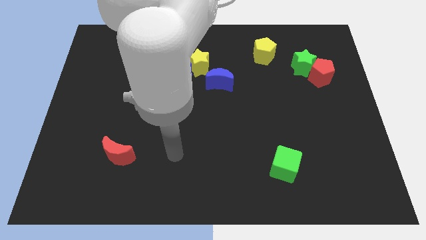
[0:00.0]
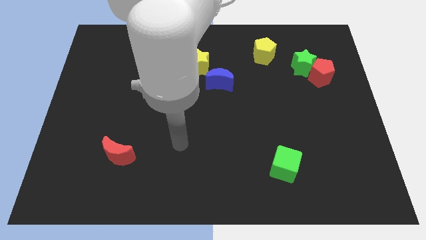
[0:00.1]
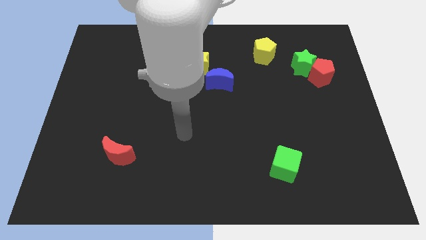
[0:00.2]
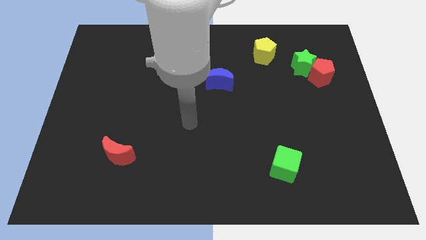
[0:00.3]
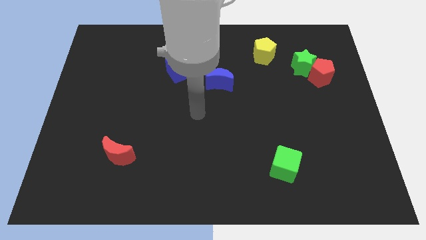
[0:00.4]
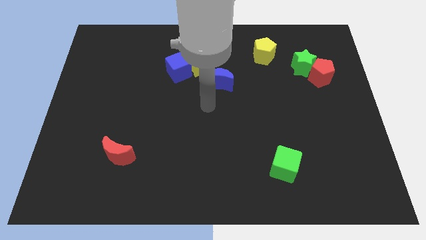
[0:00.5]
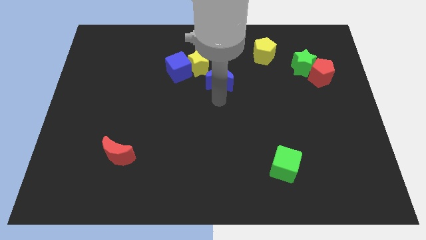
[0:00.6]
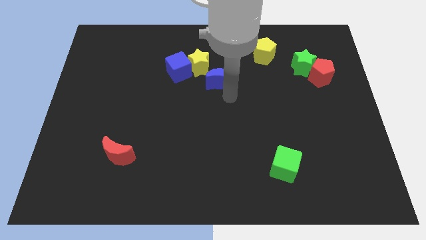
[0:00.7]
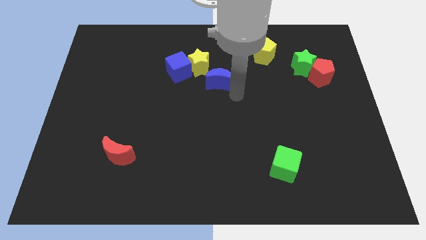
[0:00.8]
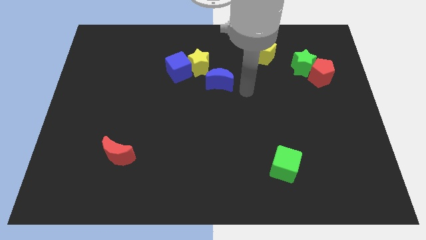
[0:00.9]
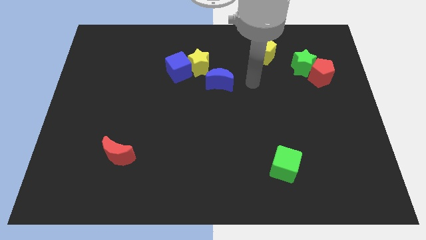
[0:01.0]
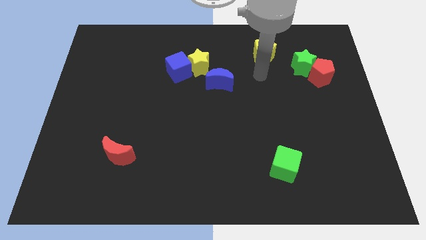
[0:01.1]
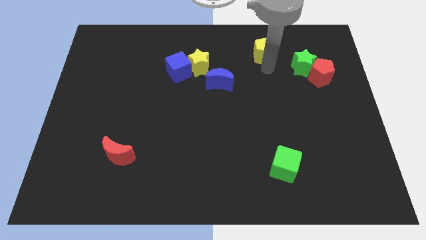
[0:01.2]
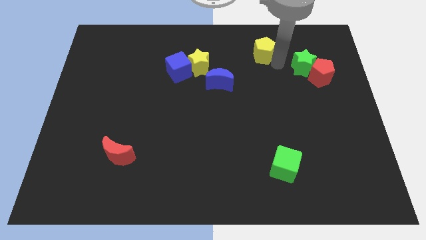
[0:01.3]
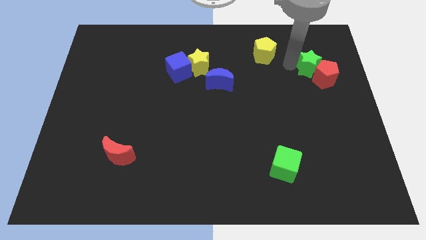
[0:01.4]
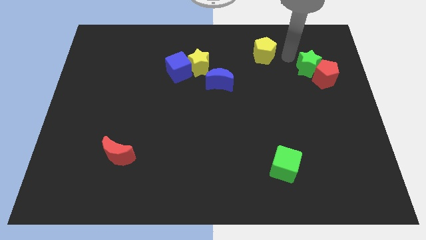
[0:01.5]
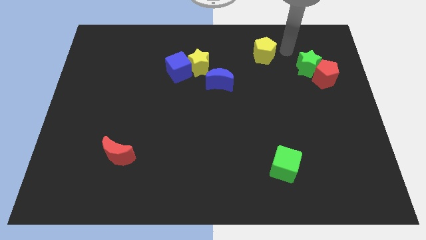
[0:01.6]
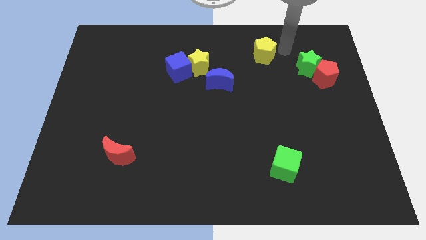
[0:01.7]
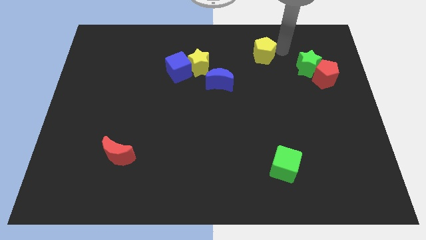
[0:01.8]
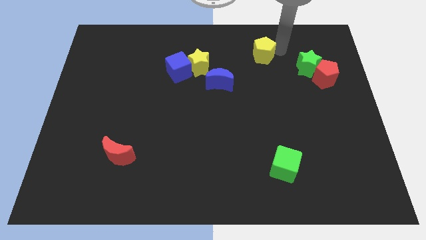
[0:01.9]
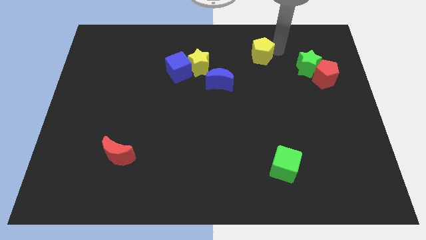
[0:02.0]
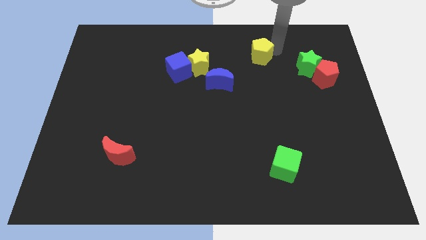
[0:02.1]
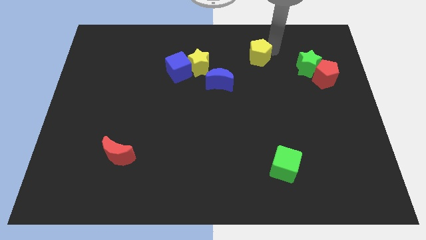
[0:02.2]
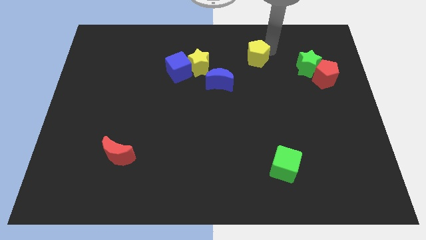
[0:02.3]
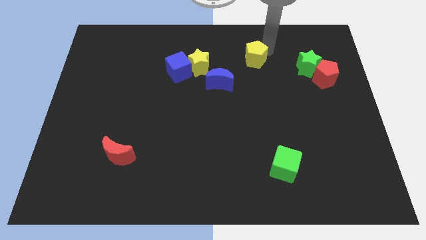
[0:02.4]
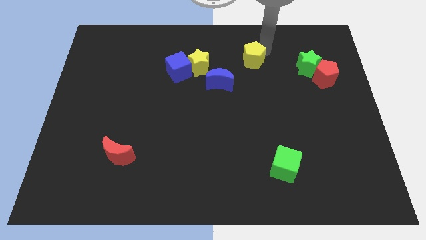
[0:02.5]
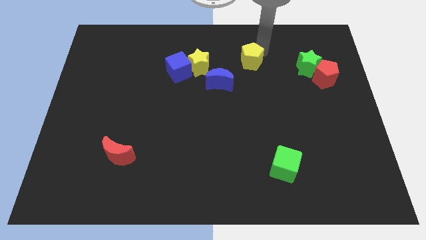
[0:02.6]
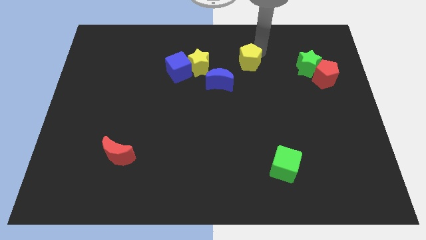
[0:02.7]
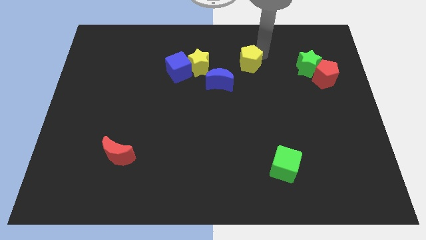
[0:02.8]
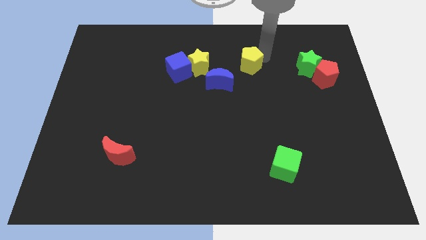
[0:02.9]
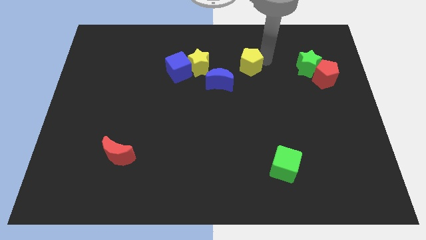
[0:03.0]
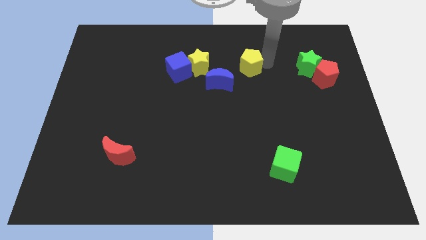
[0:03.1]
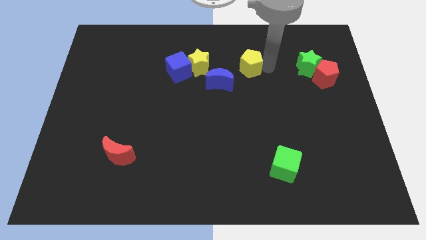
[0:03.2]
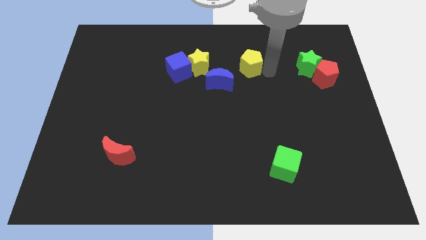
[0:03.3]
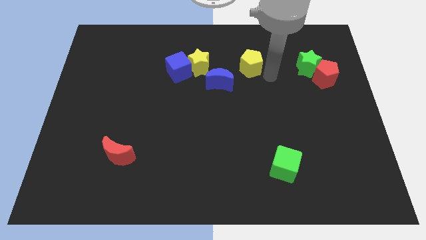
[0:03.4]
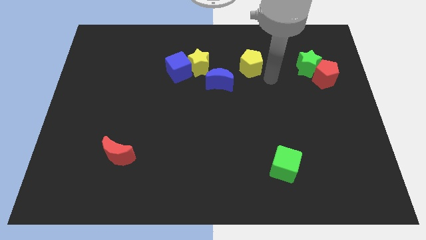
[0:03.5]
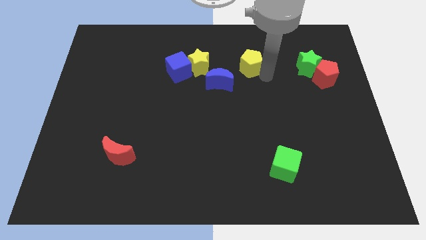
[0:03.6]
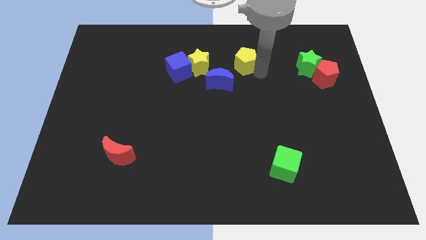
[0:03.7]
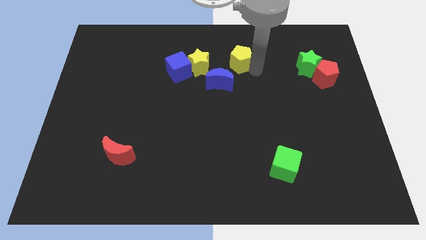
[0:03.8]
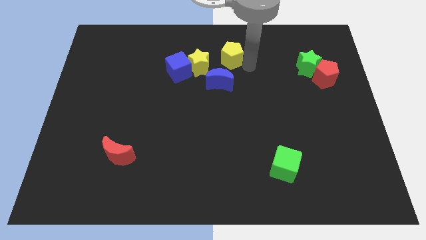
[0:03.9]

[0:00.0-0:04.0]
push the yellow pentagon to the left somewhat

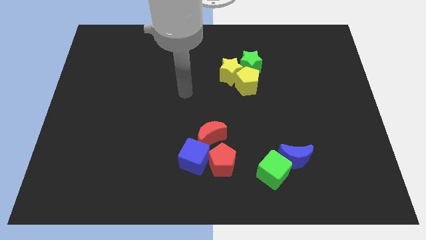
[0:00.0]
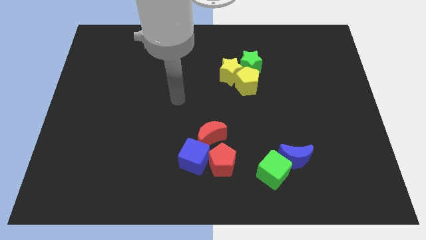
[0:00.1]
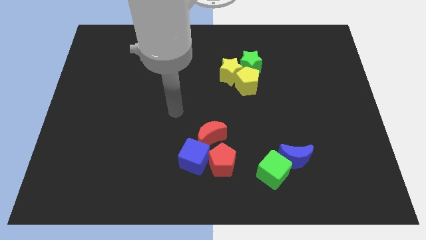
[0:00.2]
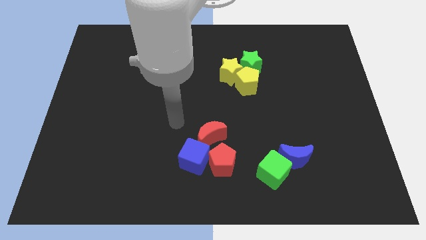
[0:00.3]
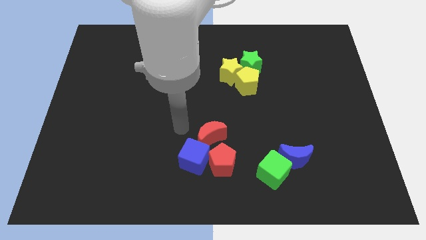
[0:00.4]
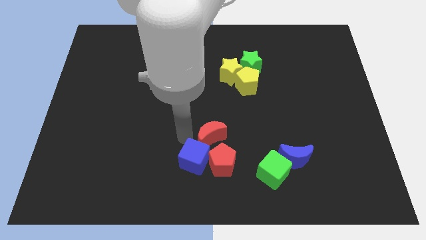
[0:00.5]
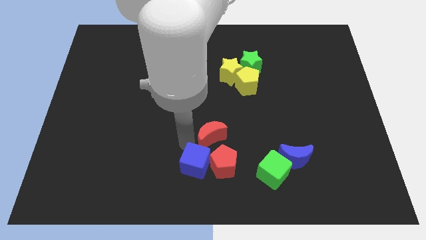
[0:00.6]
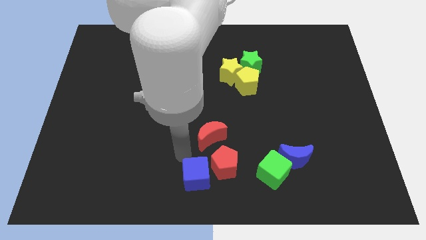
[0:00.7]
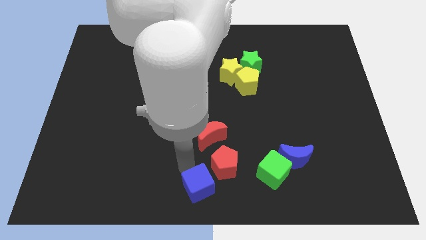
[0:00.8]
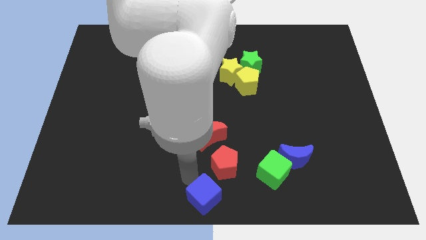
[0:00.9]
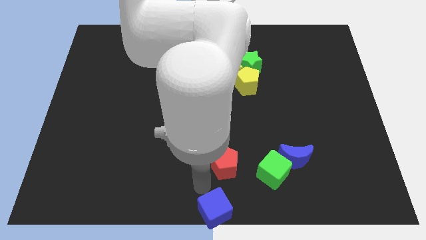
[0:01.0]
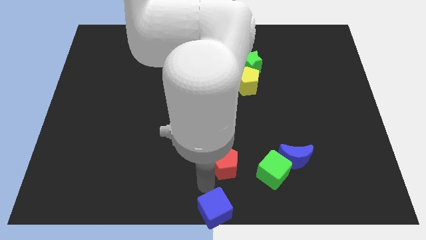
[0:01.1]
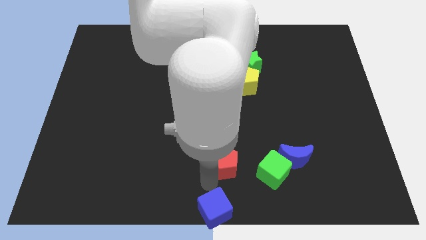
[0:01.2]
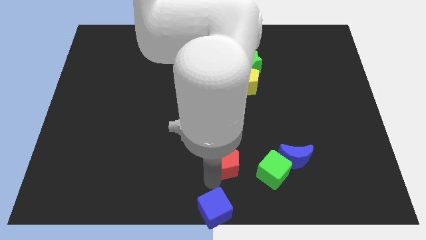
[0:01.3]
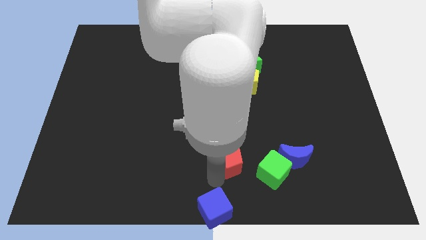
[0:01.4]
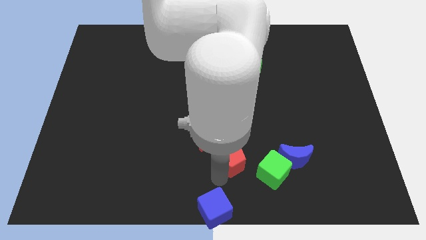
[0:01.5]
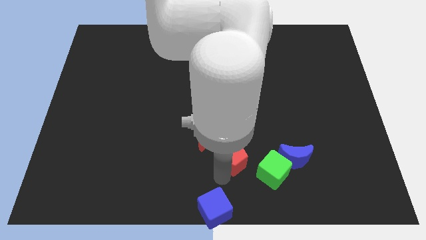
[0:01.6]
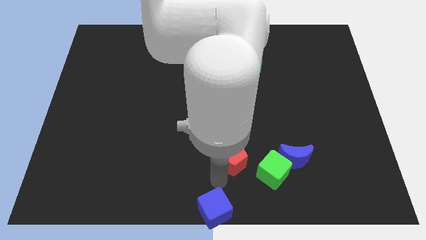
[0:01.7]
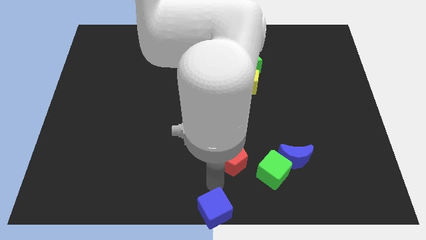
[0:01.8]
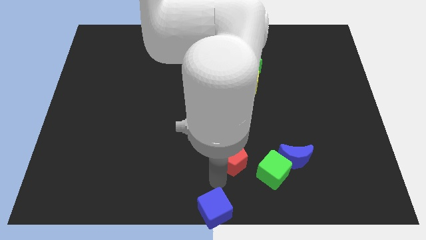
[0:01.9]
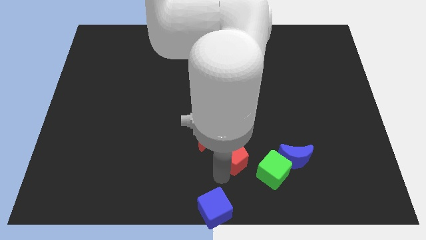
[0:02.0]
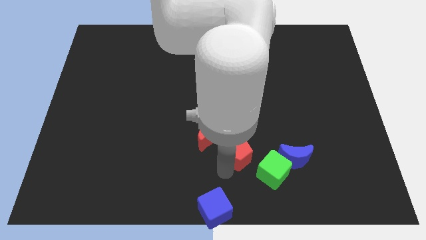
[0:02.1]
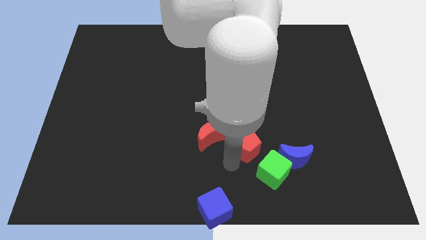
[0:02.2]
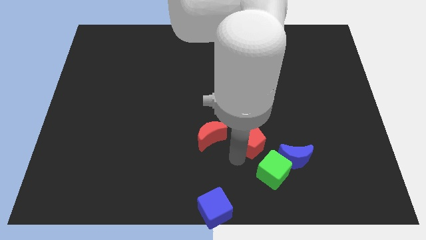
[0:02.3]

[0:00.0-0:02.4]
move the red pentagon upwards and right diagonally somewhat

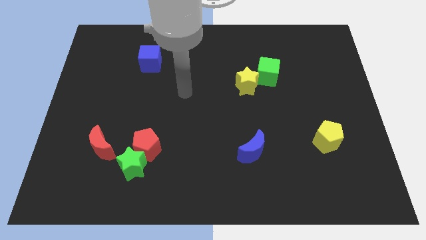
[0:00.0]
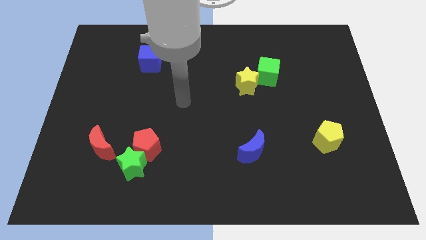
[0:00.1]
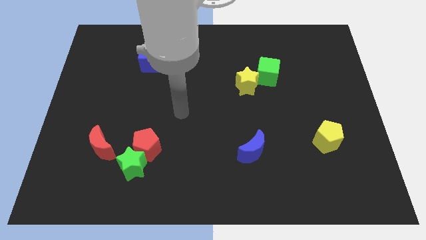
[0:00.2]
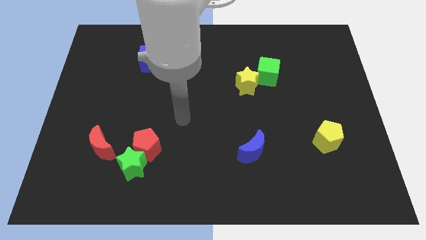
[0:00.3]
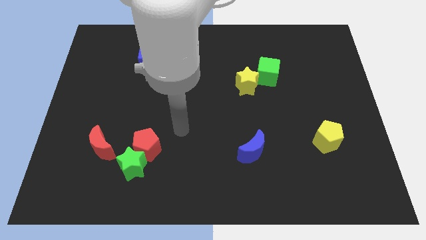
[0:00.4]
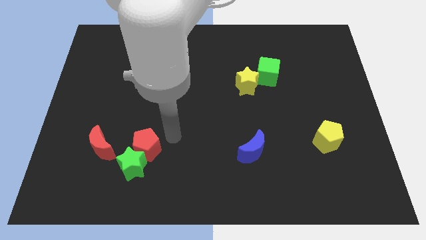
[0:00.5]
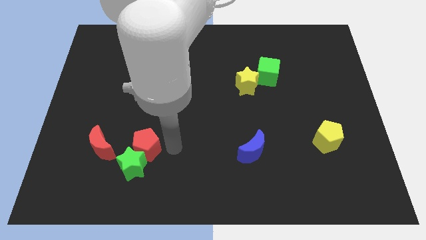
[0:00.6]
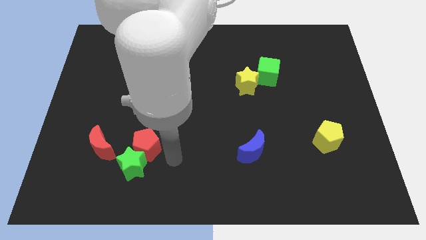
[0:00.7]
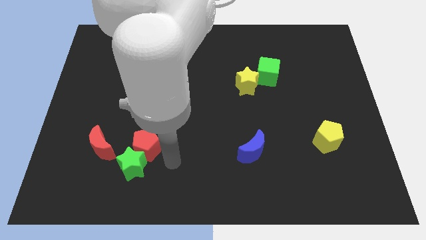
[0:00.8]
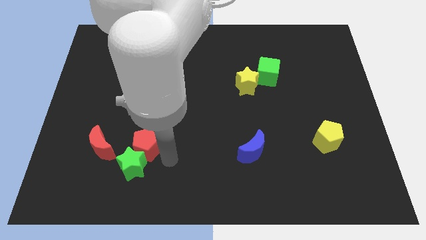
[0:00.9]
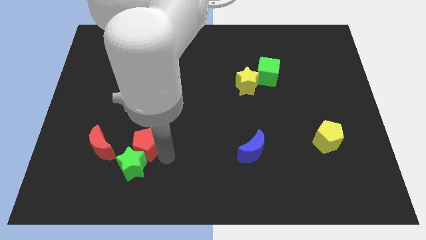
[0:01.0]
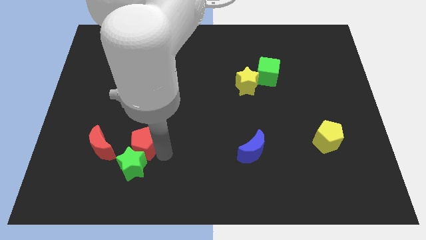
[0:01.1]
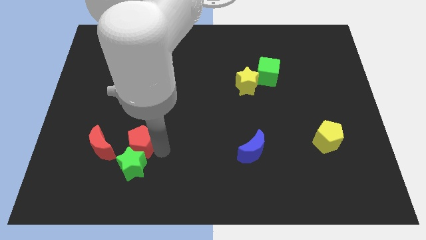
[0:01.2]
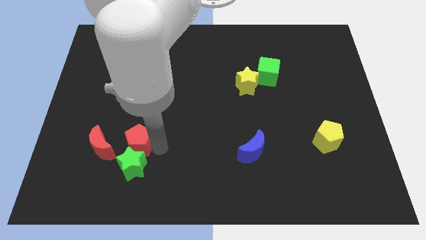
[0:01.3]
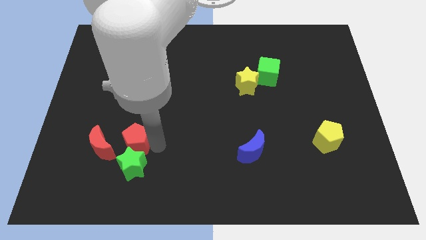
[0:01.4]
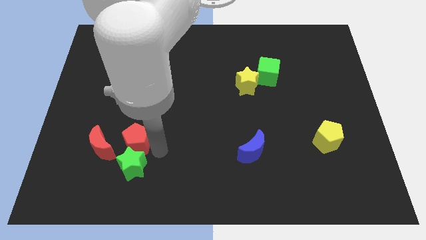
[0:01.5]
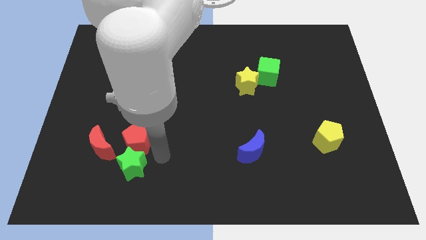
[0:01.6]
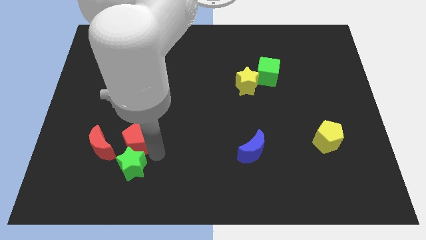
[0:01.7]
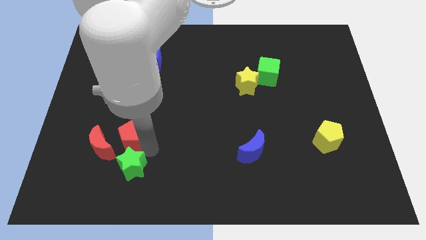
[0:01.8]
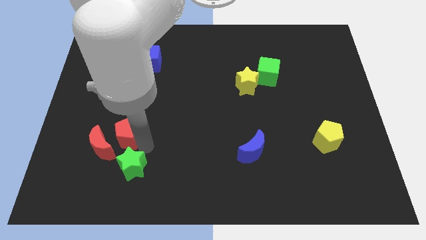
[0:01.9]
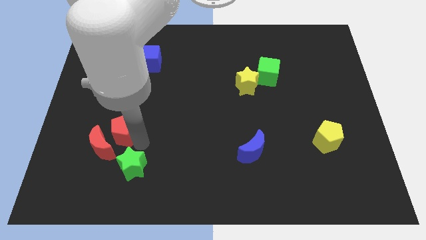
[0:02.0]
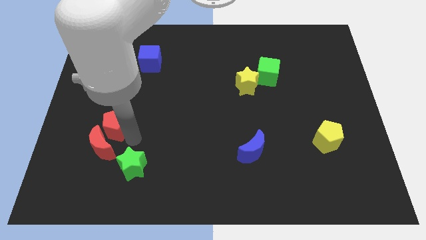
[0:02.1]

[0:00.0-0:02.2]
push the red pentagon upwards and then left slightly
